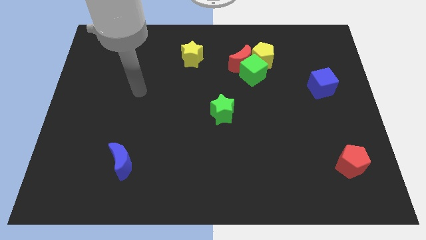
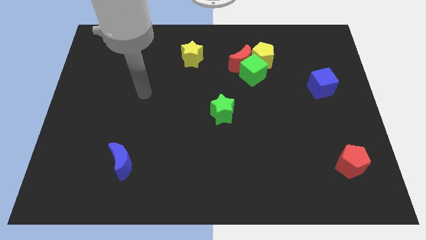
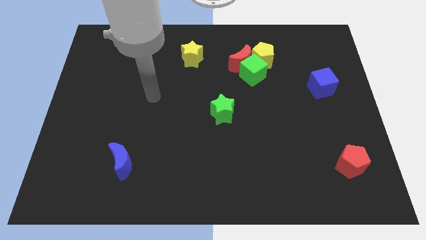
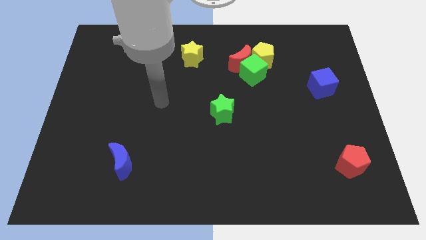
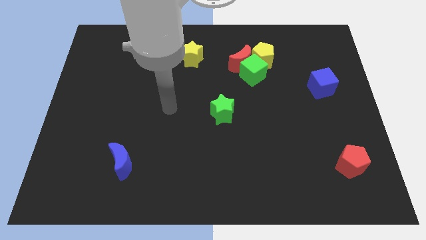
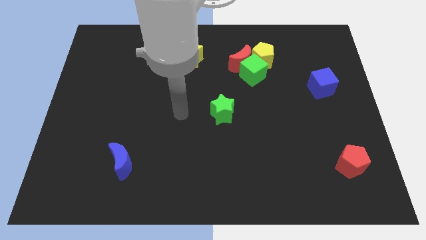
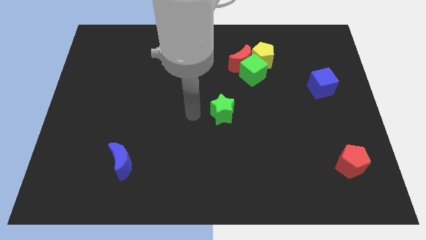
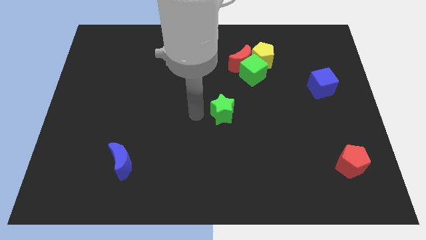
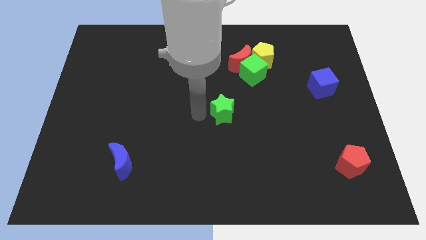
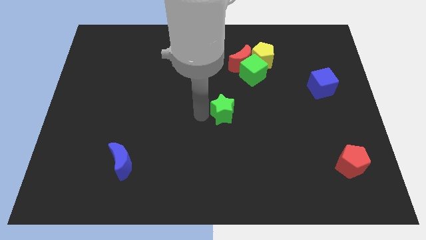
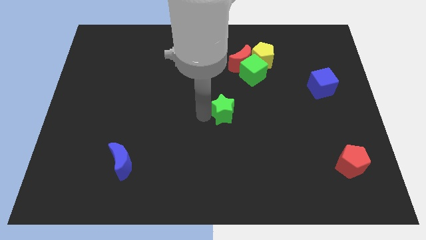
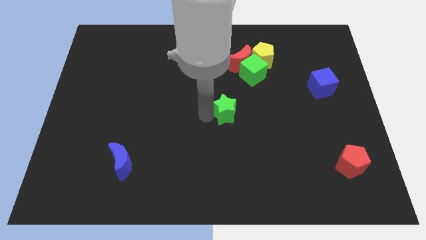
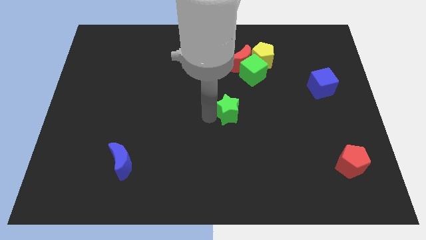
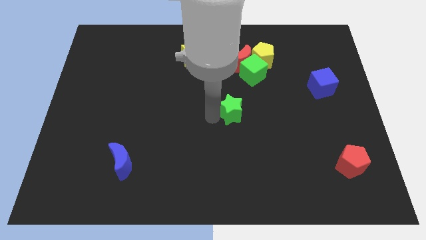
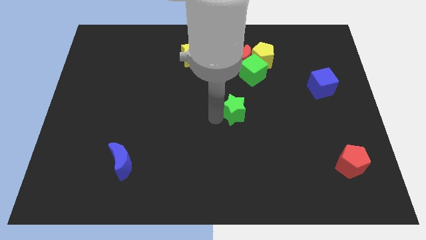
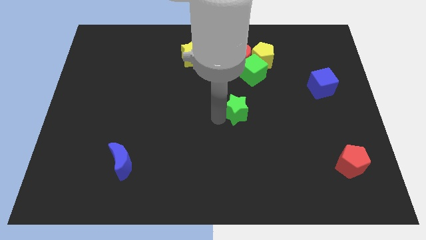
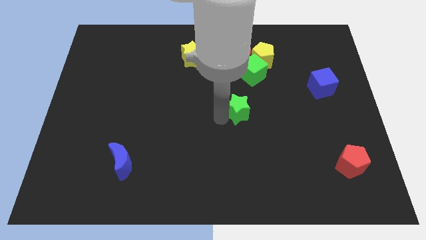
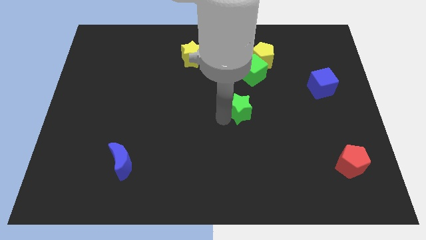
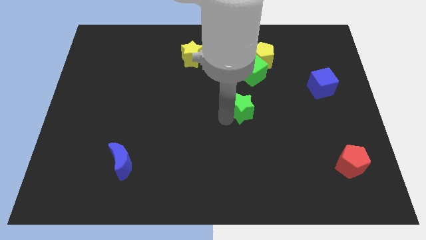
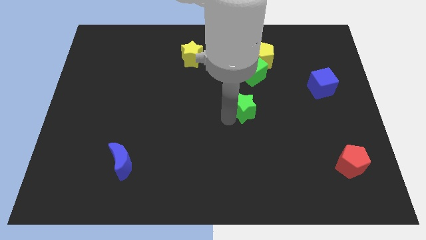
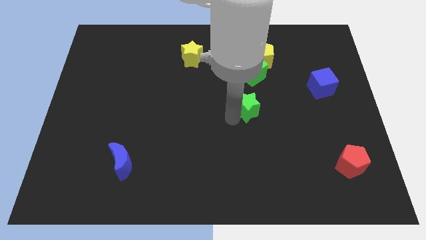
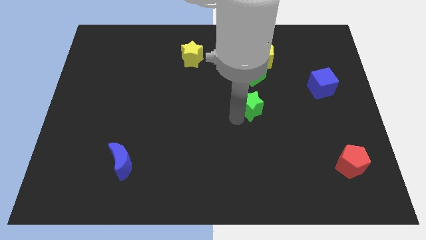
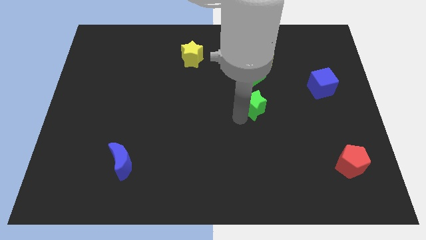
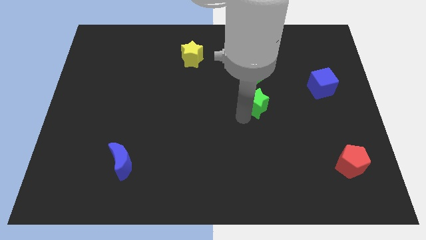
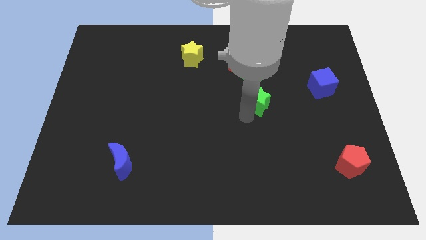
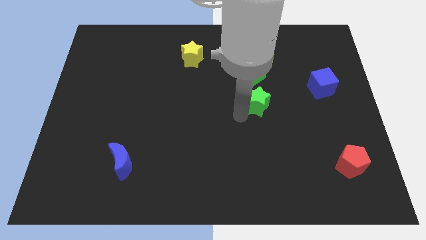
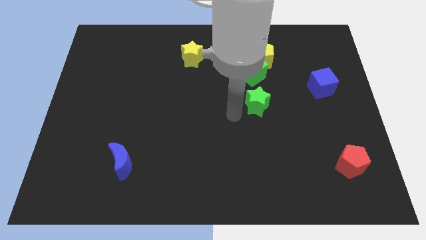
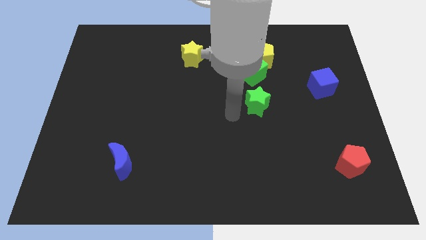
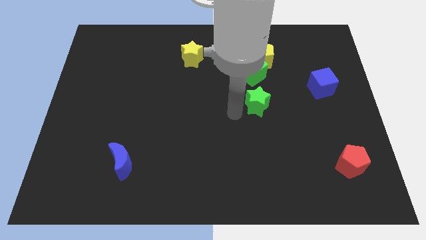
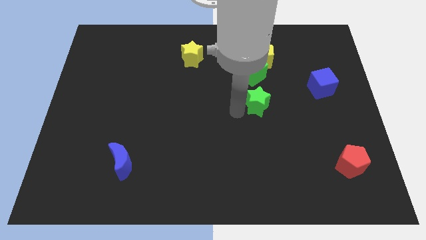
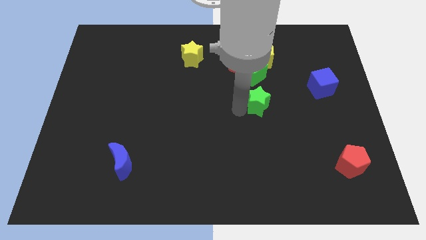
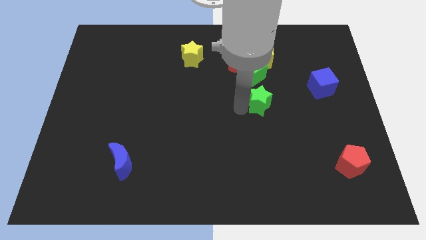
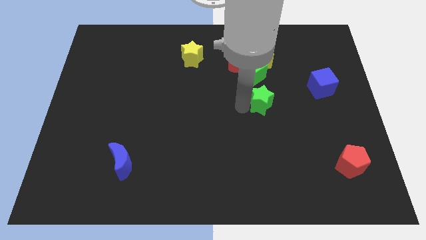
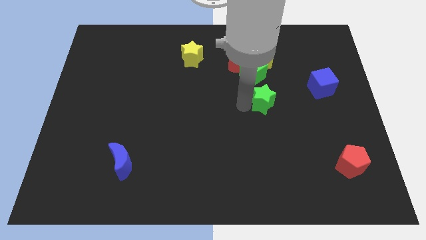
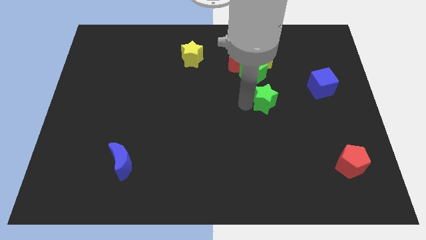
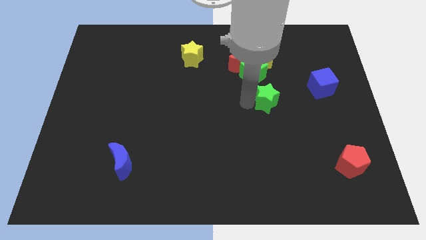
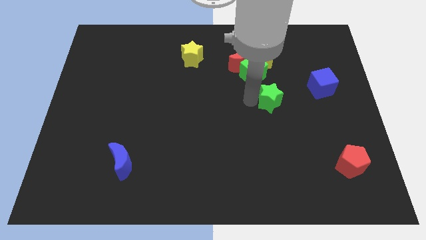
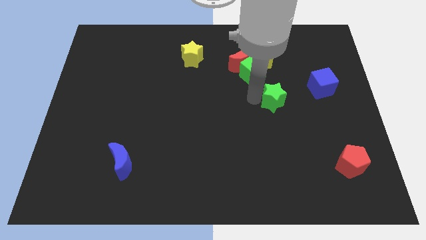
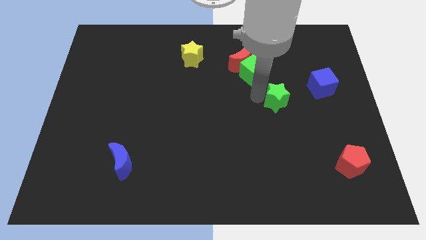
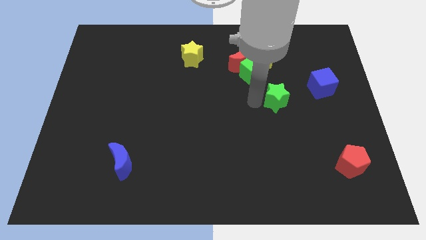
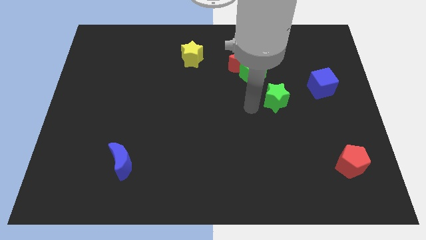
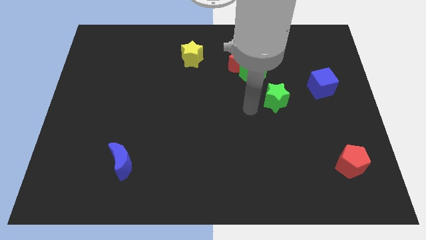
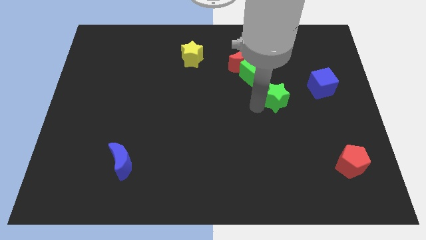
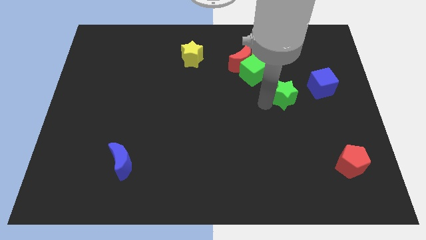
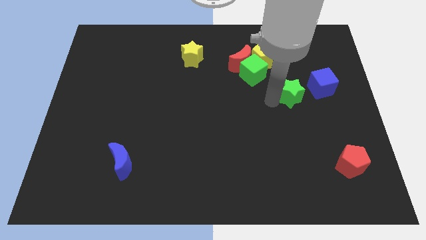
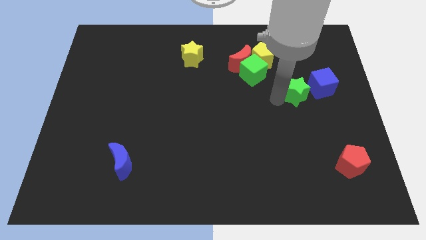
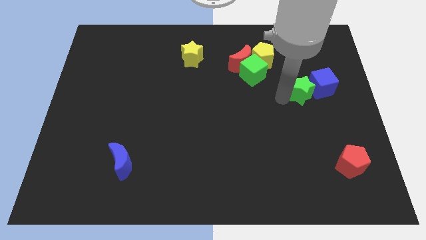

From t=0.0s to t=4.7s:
move the green star towards the blue cube

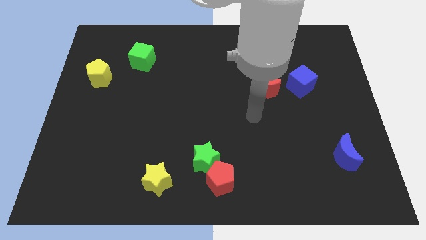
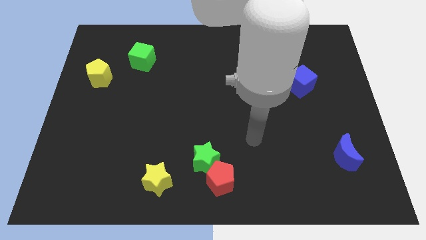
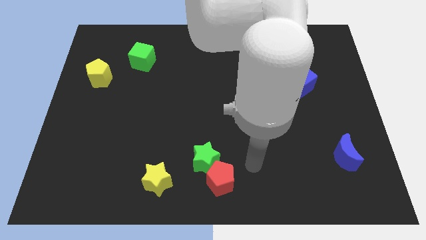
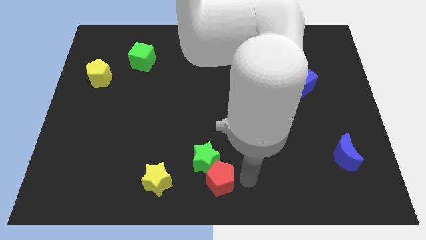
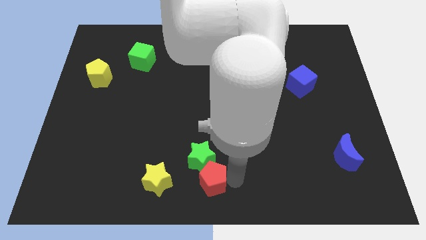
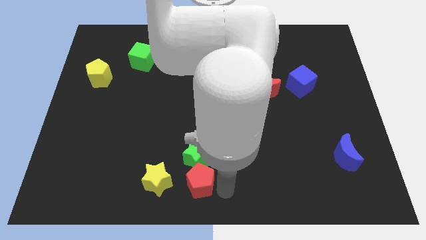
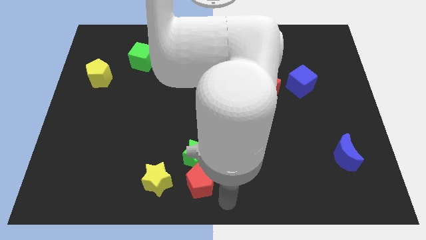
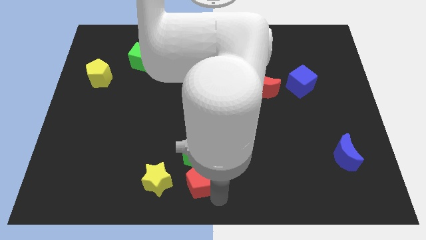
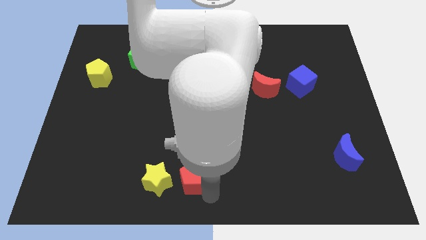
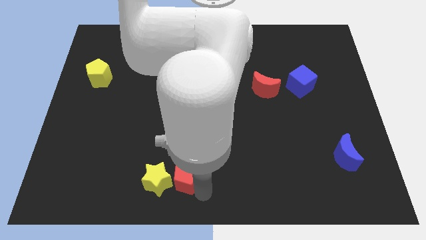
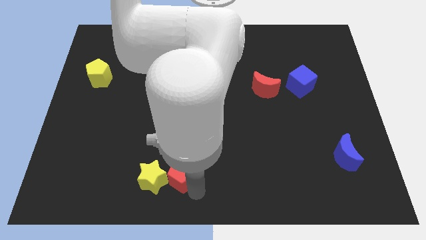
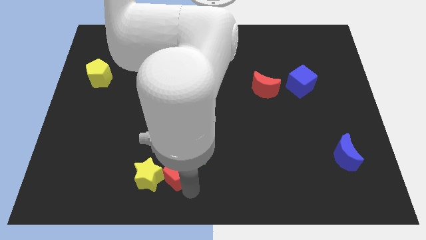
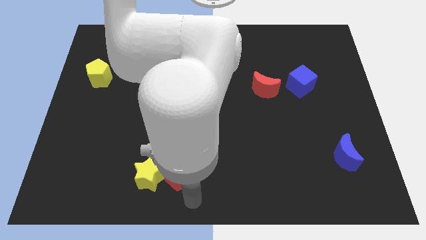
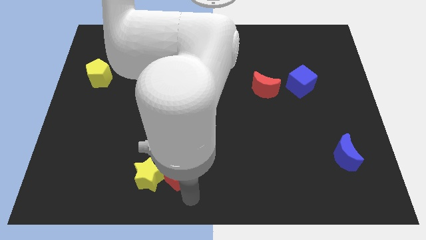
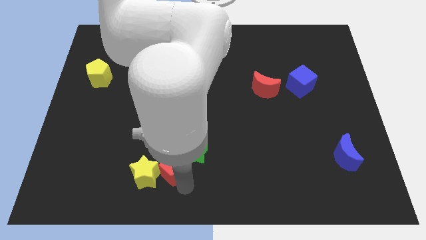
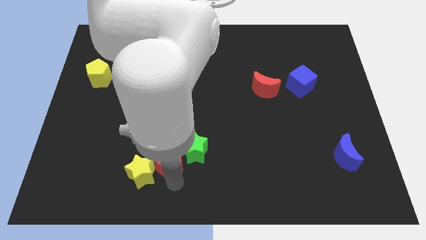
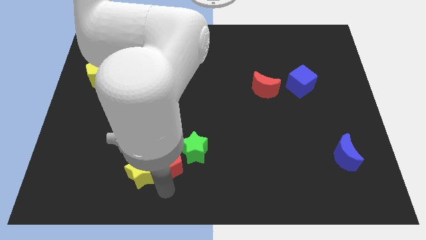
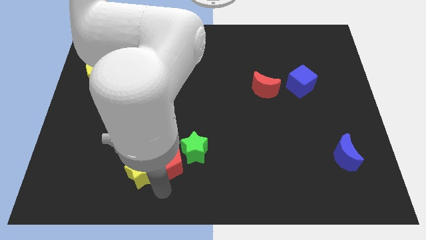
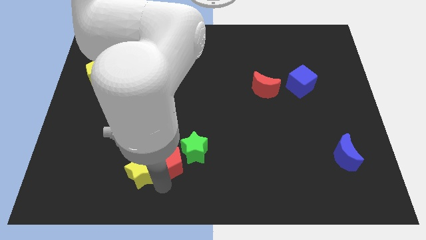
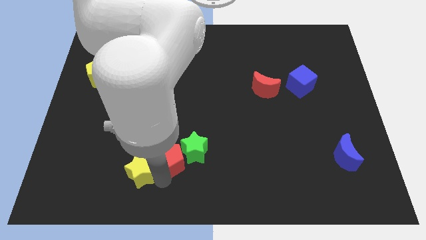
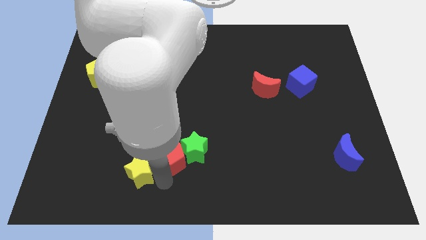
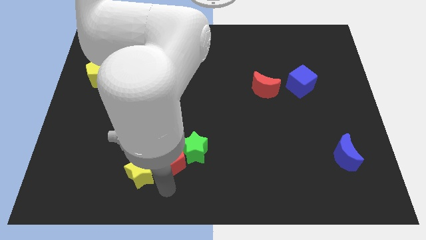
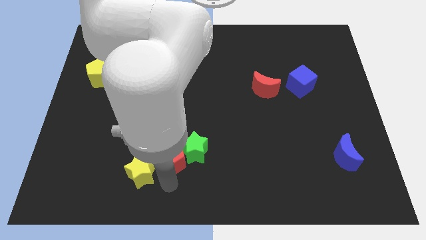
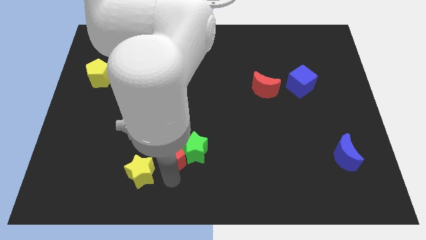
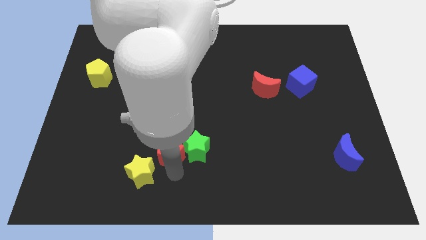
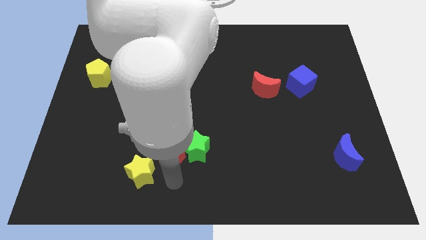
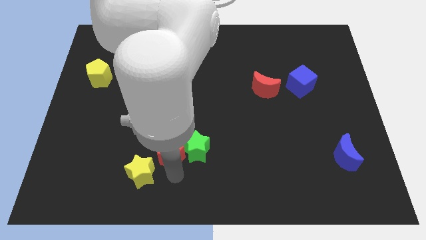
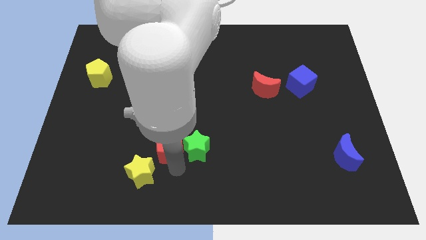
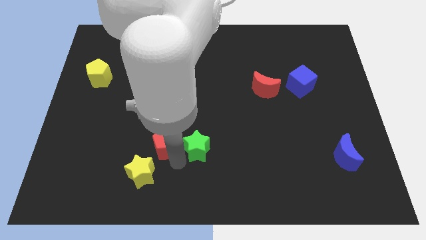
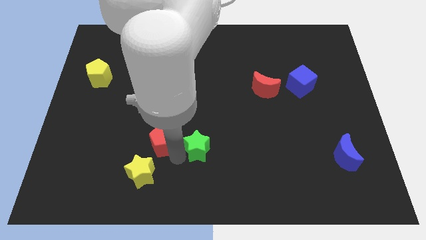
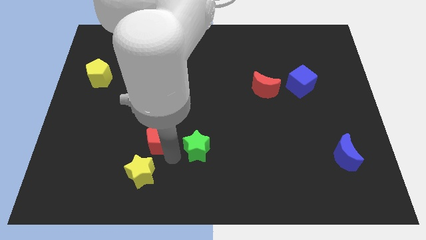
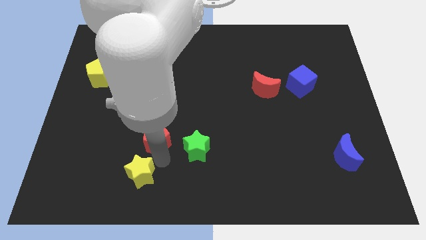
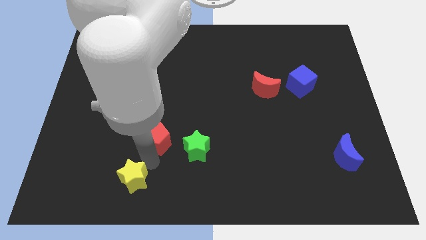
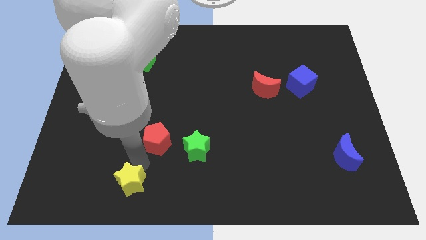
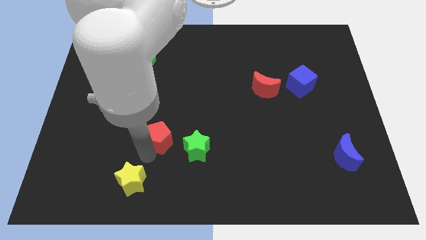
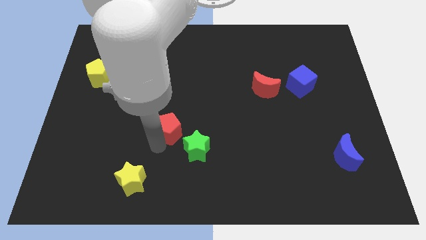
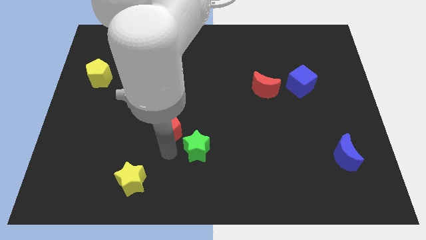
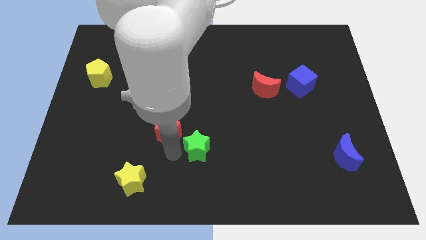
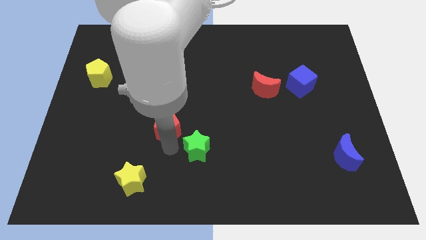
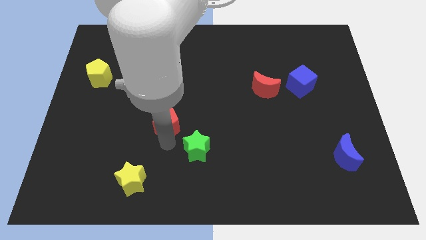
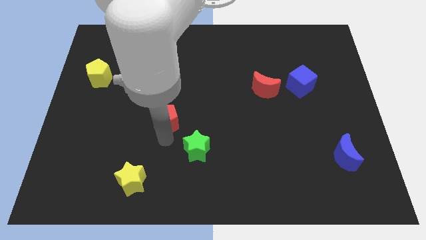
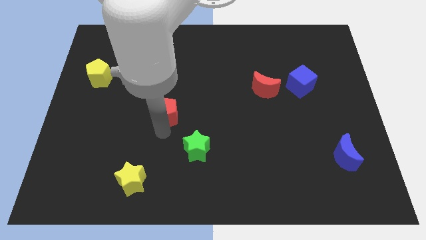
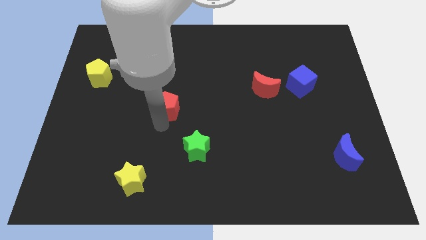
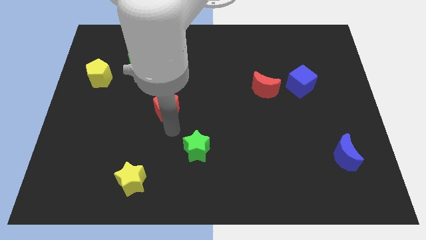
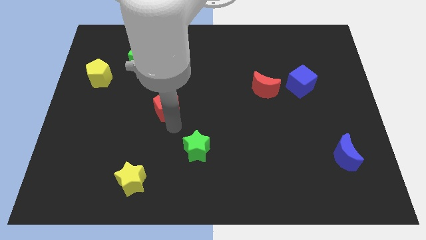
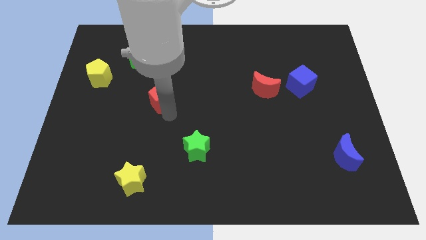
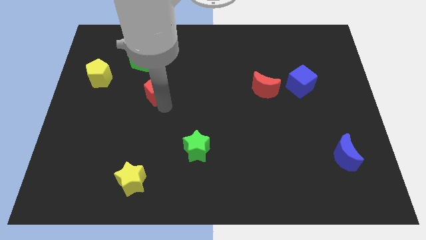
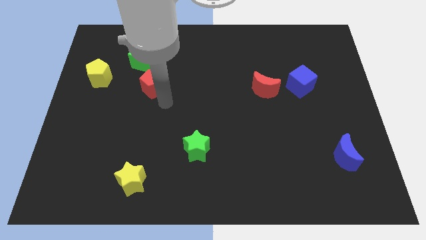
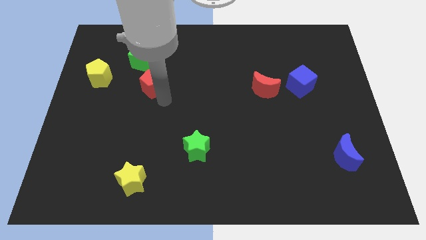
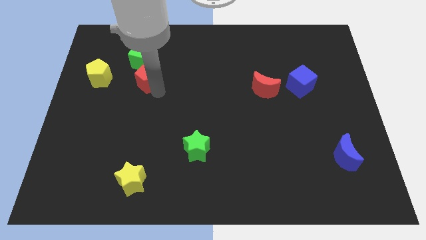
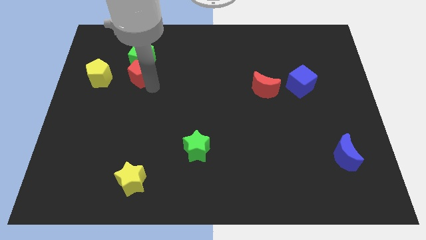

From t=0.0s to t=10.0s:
put the red pentagon close to the green cube
